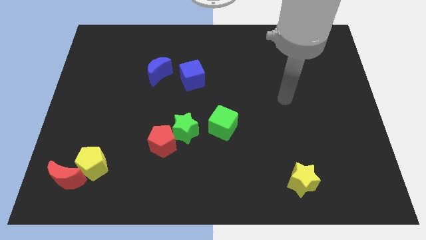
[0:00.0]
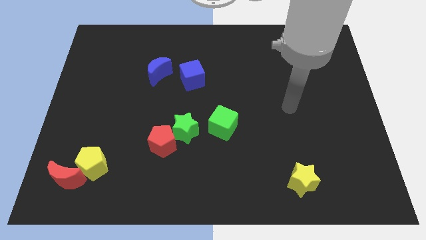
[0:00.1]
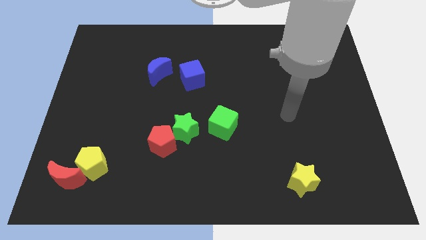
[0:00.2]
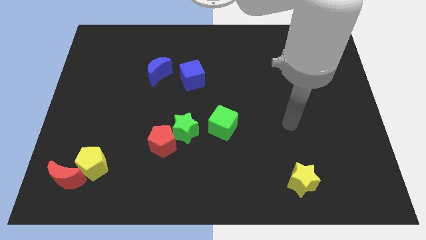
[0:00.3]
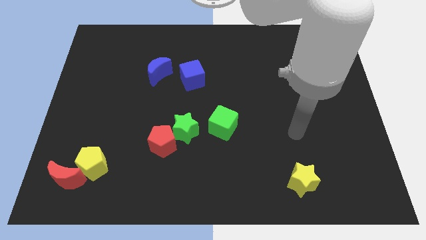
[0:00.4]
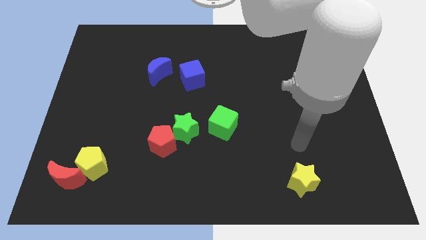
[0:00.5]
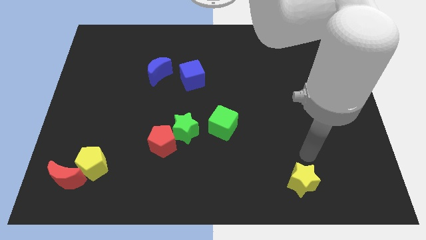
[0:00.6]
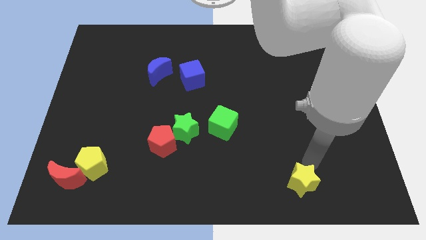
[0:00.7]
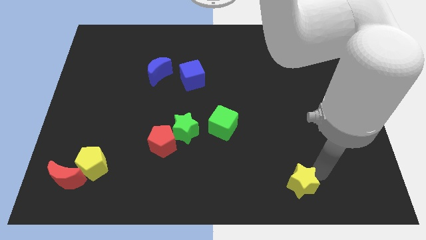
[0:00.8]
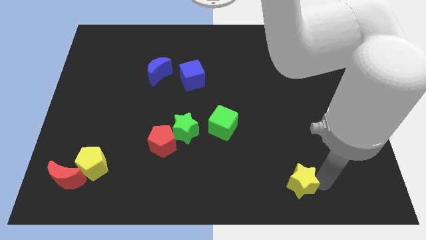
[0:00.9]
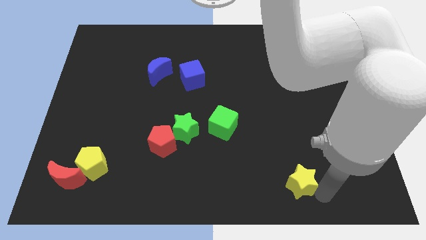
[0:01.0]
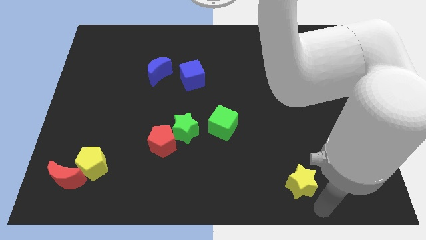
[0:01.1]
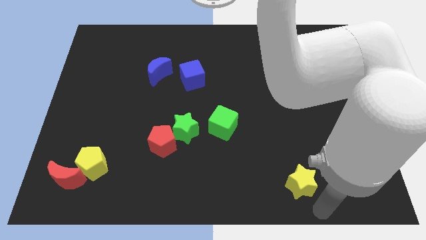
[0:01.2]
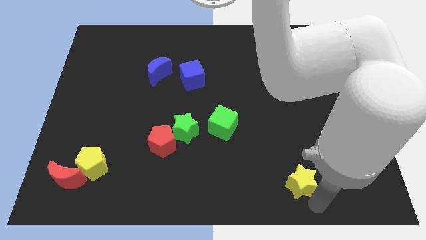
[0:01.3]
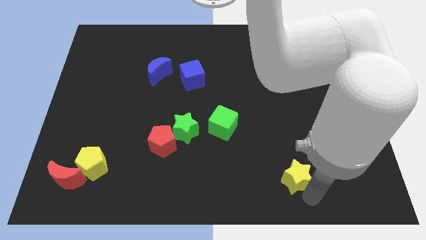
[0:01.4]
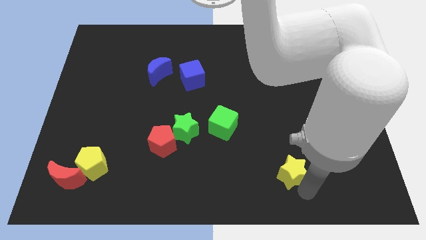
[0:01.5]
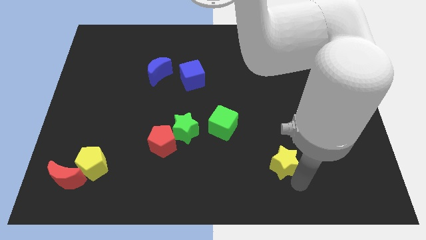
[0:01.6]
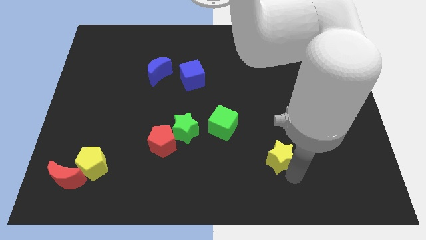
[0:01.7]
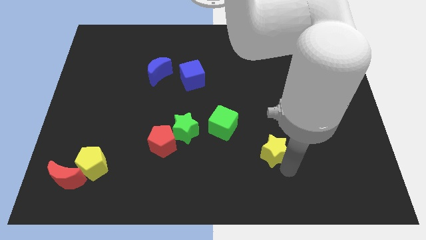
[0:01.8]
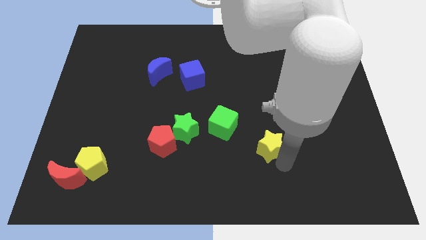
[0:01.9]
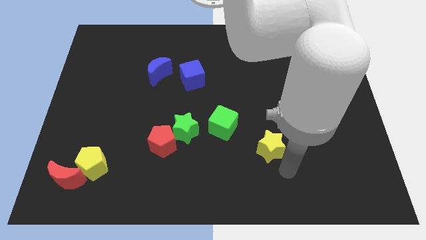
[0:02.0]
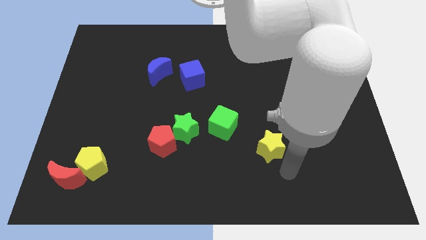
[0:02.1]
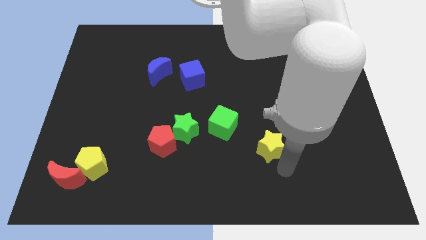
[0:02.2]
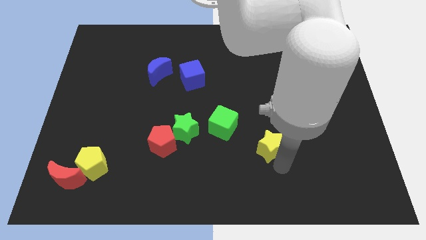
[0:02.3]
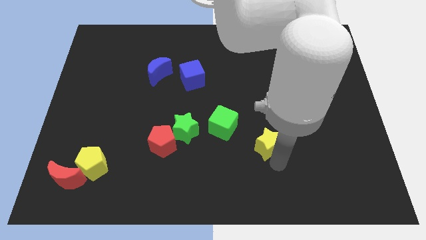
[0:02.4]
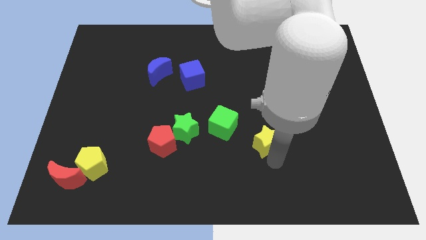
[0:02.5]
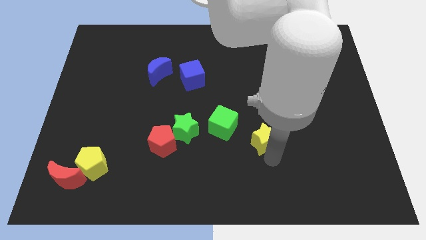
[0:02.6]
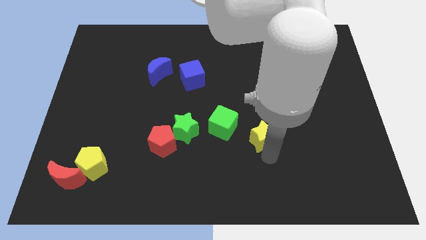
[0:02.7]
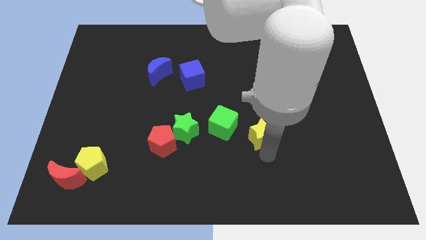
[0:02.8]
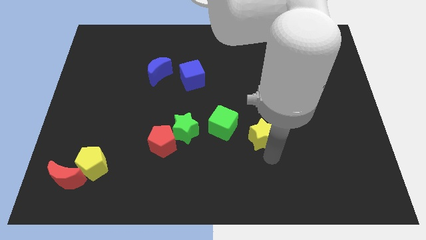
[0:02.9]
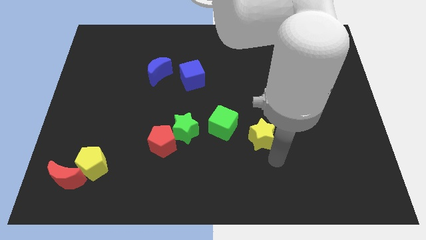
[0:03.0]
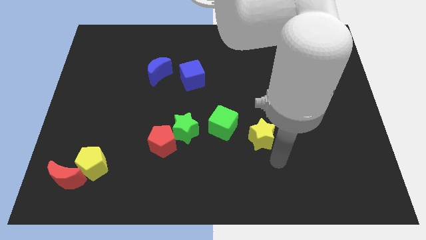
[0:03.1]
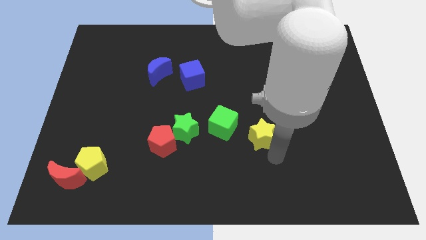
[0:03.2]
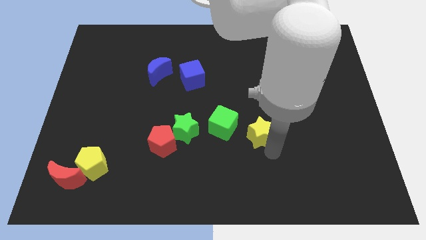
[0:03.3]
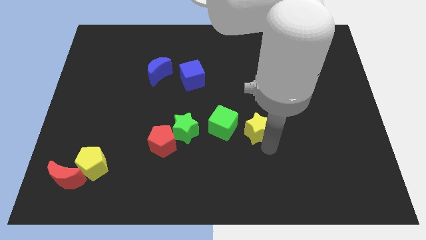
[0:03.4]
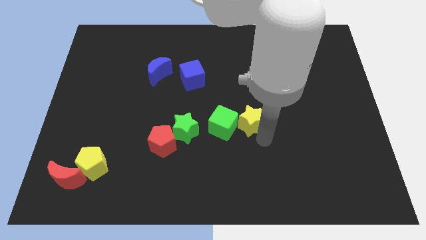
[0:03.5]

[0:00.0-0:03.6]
put the yellow star to the middle

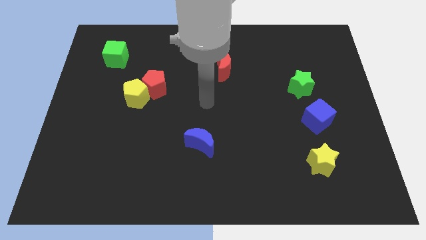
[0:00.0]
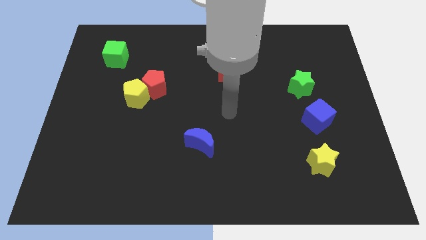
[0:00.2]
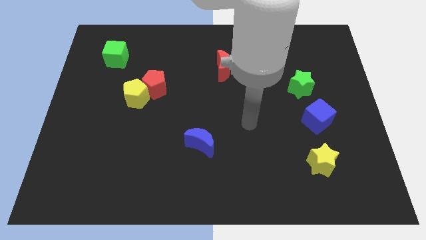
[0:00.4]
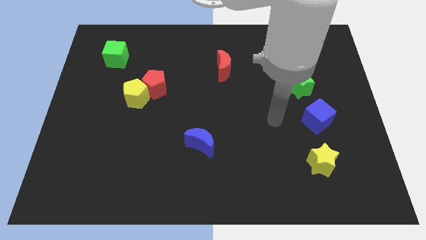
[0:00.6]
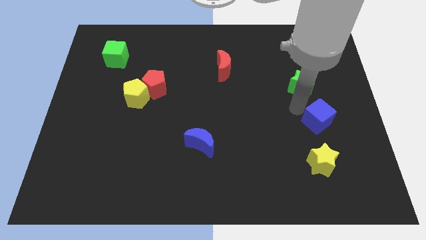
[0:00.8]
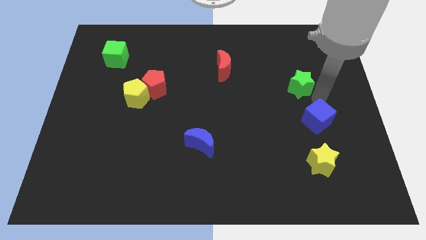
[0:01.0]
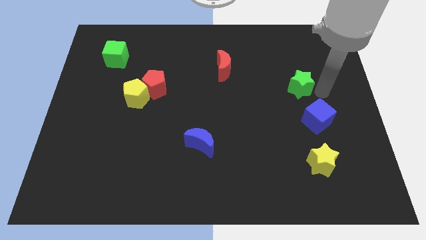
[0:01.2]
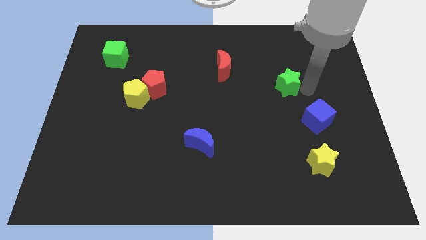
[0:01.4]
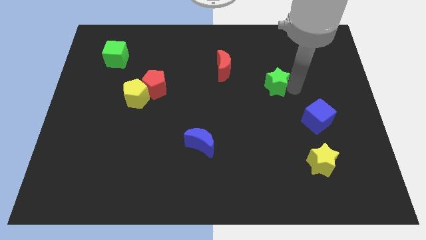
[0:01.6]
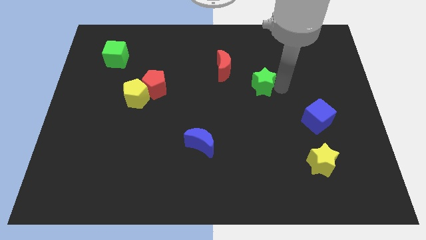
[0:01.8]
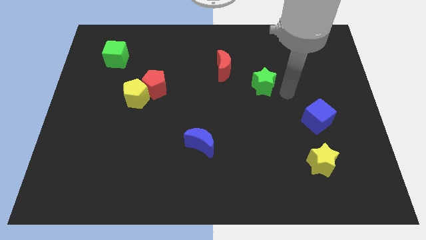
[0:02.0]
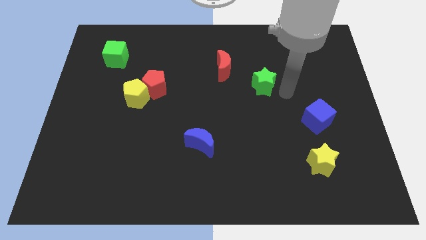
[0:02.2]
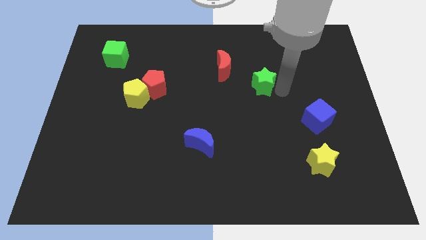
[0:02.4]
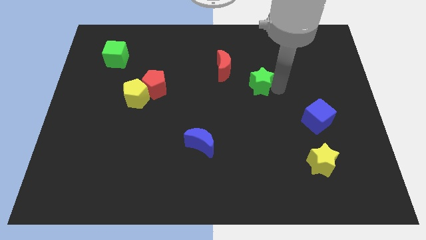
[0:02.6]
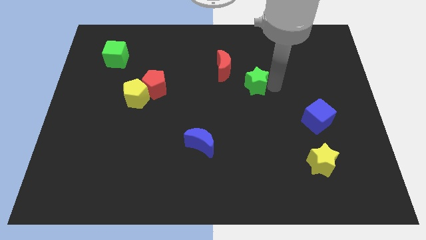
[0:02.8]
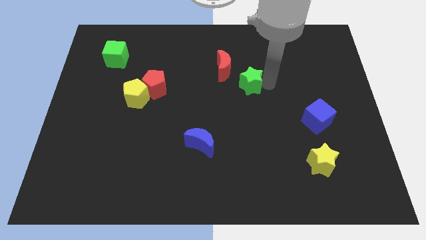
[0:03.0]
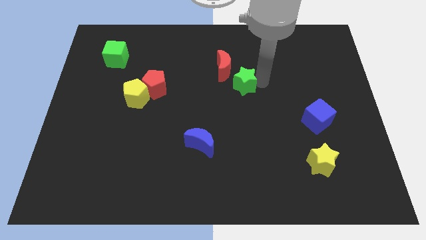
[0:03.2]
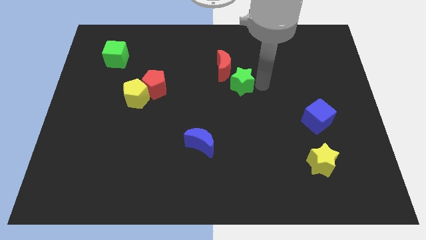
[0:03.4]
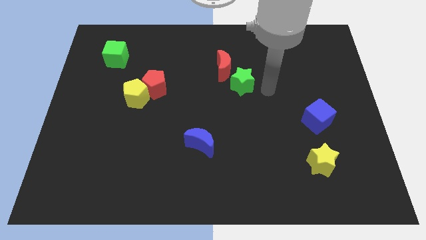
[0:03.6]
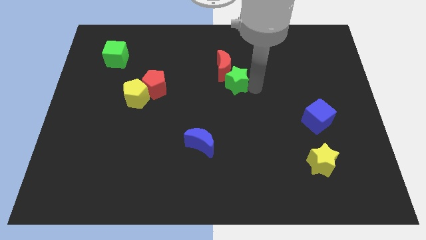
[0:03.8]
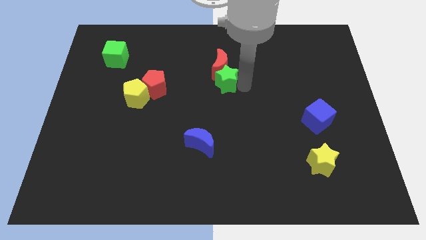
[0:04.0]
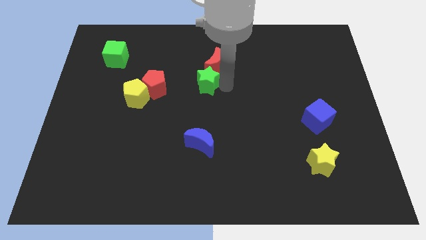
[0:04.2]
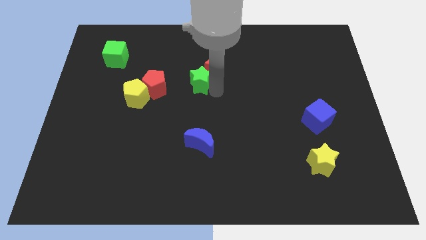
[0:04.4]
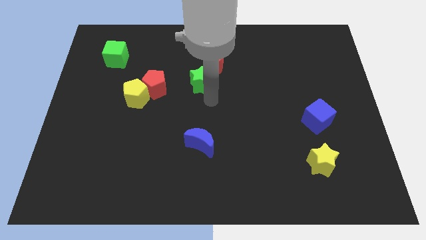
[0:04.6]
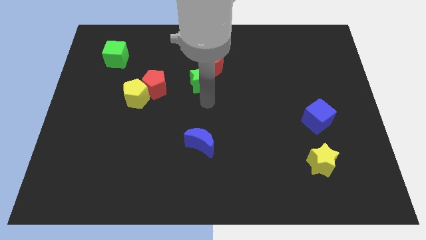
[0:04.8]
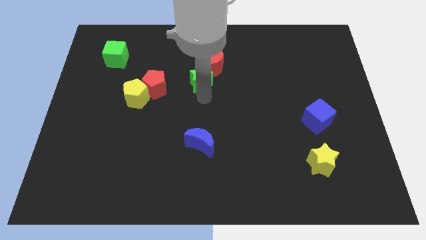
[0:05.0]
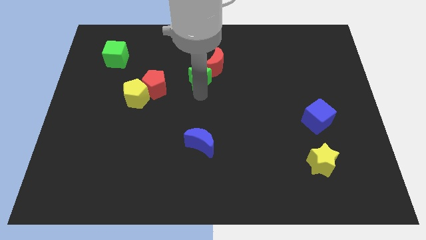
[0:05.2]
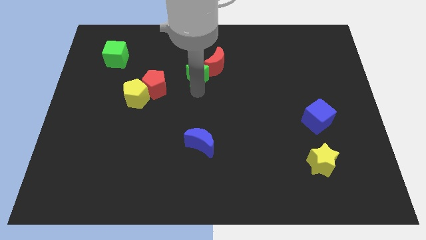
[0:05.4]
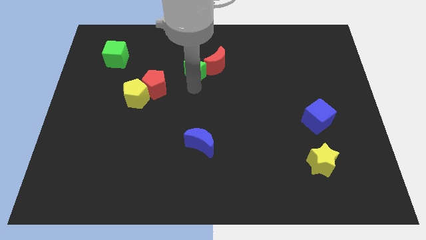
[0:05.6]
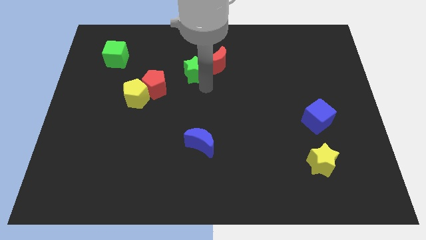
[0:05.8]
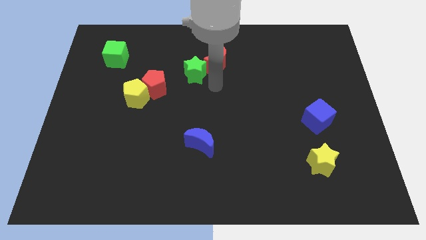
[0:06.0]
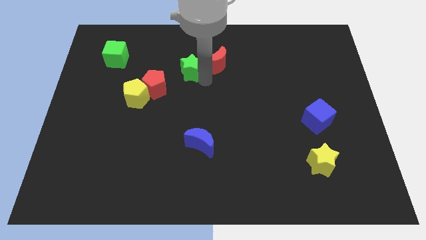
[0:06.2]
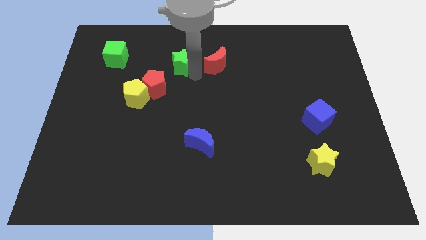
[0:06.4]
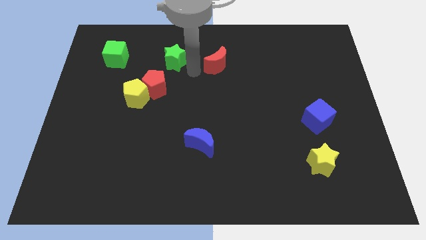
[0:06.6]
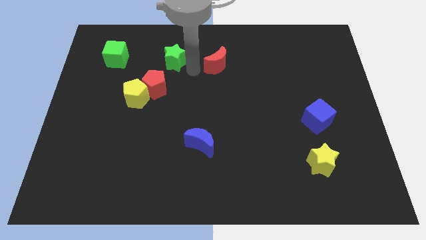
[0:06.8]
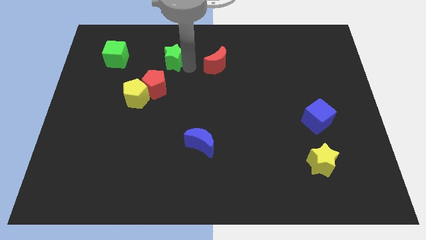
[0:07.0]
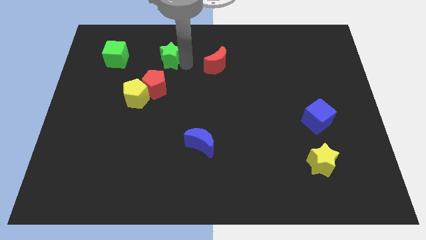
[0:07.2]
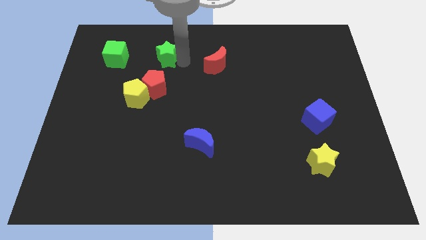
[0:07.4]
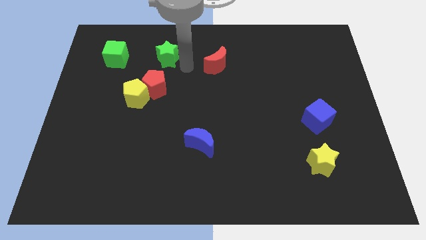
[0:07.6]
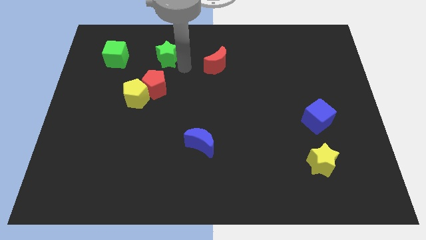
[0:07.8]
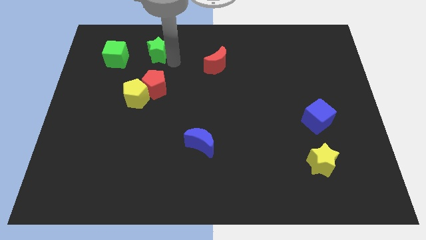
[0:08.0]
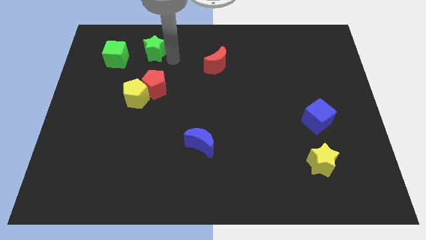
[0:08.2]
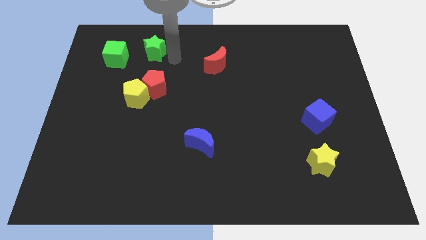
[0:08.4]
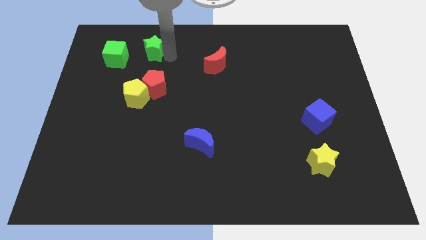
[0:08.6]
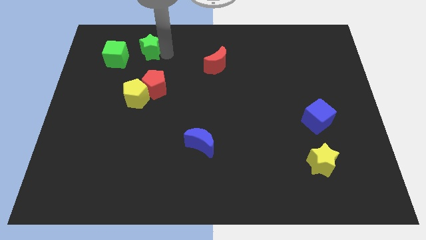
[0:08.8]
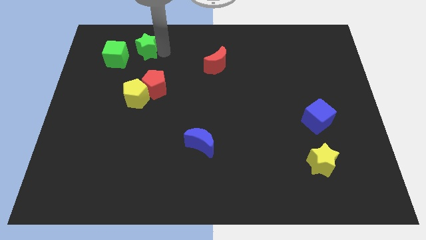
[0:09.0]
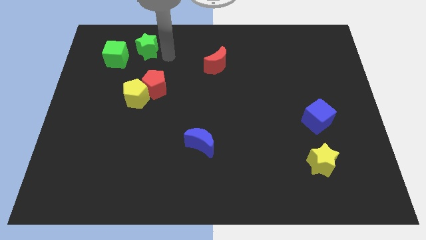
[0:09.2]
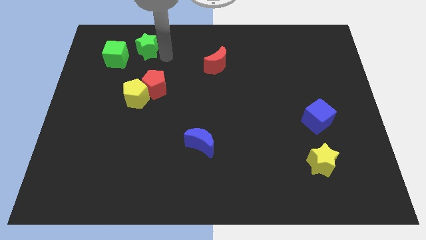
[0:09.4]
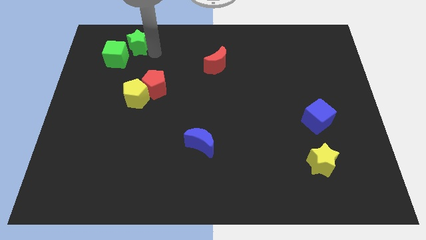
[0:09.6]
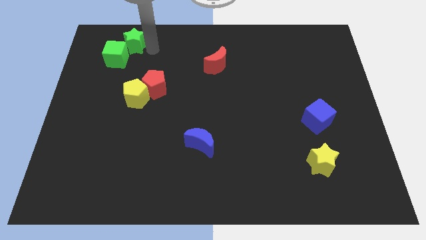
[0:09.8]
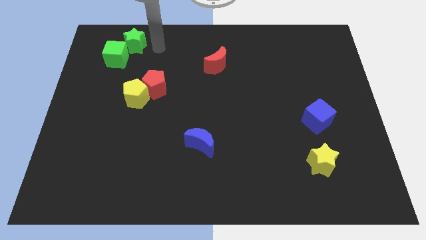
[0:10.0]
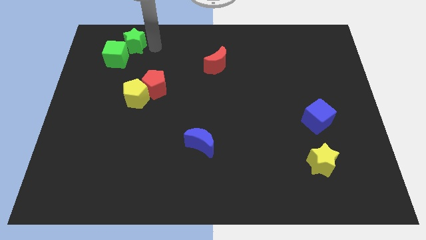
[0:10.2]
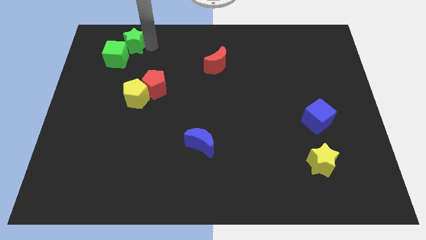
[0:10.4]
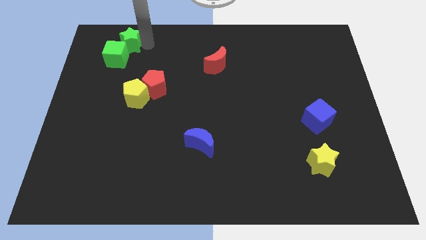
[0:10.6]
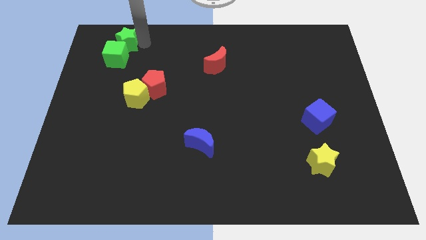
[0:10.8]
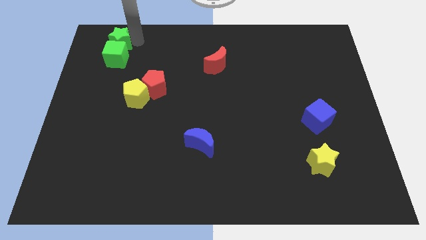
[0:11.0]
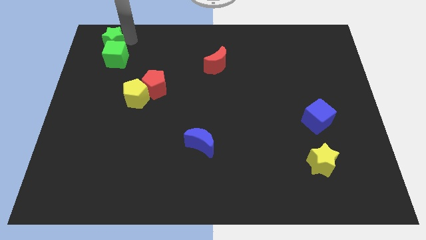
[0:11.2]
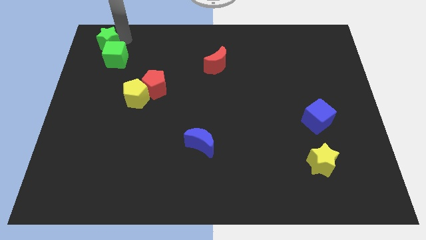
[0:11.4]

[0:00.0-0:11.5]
push the green star to the top left corner
